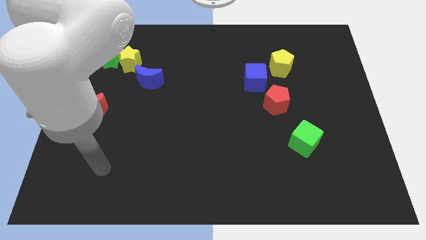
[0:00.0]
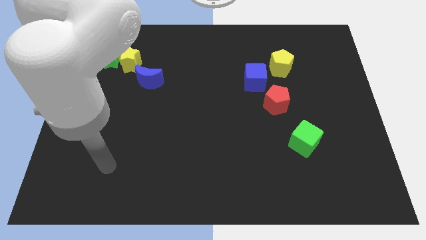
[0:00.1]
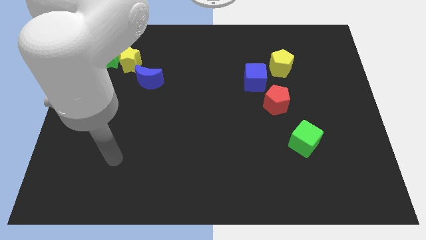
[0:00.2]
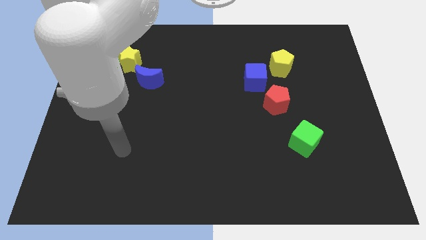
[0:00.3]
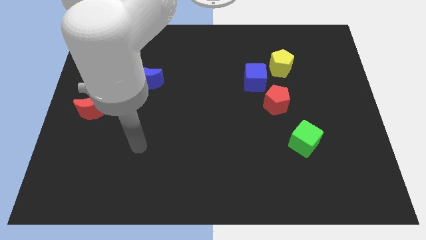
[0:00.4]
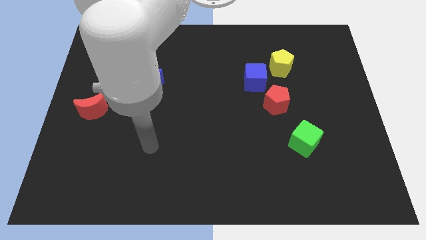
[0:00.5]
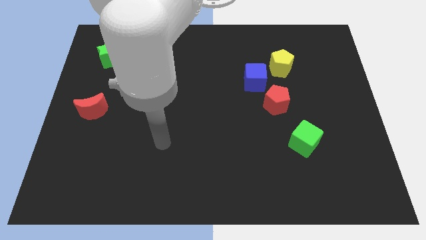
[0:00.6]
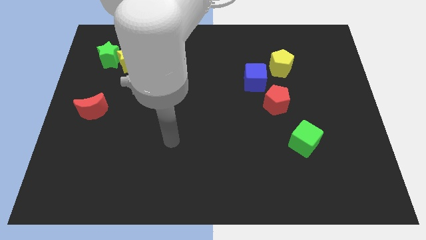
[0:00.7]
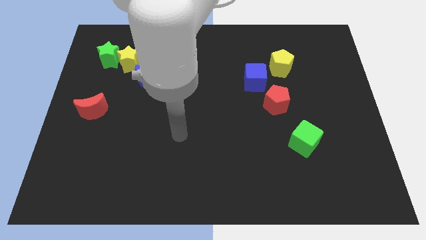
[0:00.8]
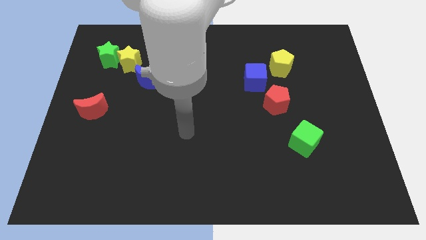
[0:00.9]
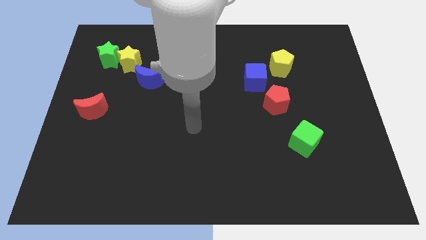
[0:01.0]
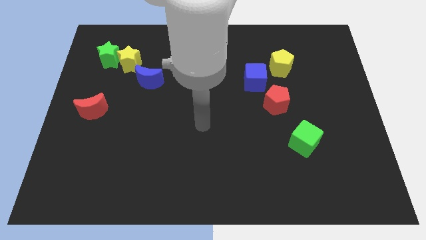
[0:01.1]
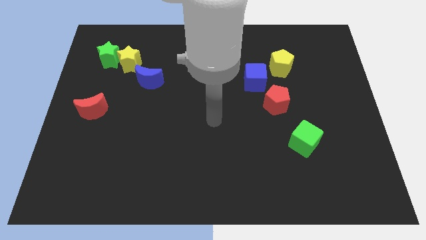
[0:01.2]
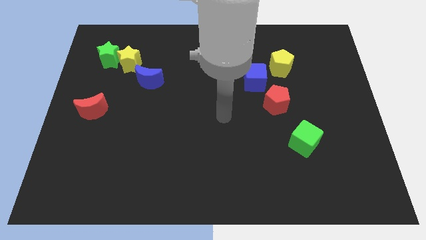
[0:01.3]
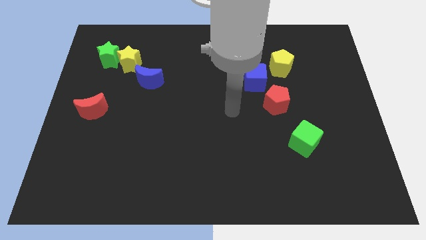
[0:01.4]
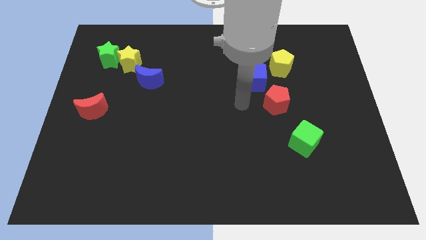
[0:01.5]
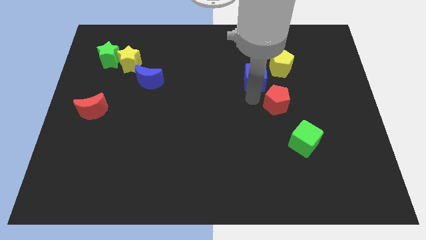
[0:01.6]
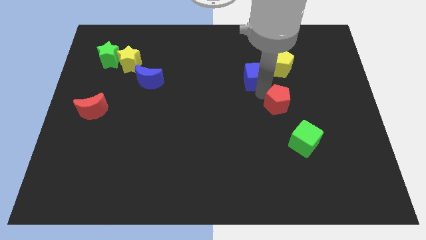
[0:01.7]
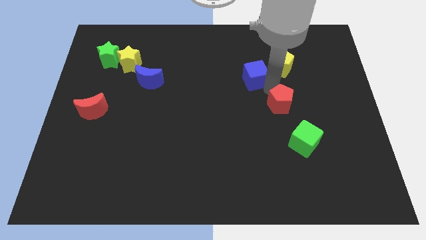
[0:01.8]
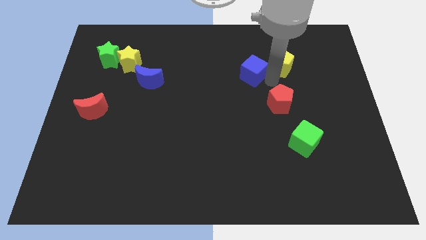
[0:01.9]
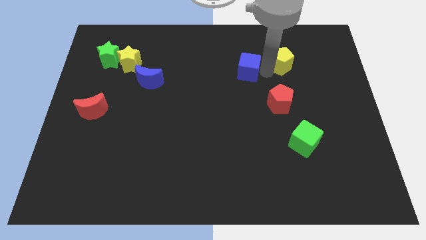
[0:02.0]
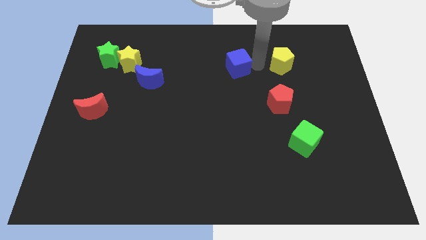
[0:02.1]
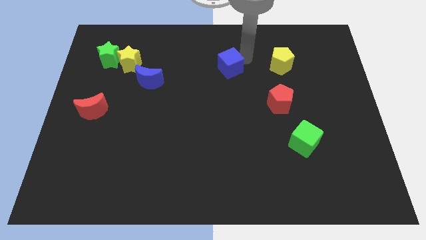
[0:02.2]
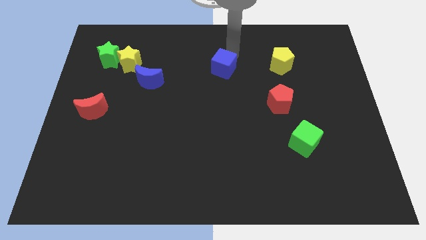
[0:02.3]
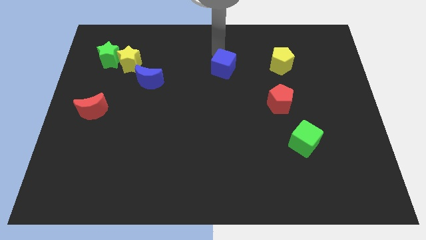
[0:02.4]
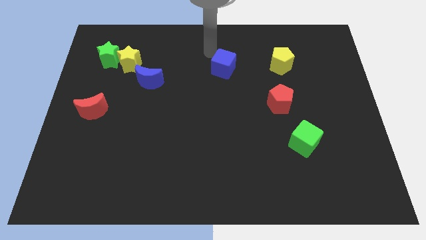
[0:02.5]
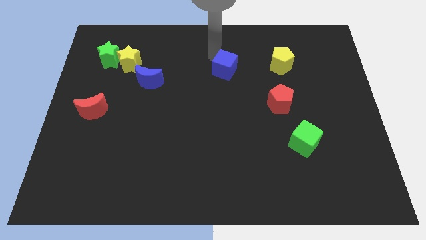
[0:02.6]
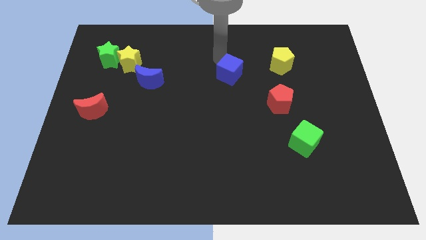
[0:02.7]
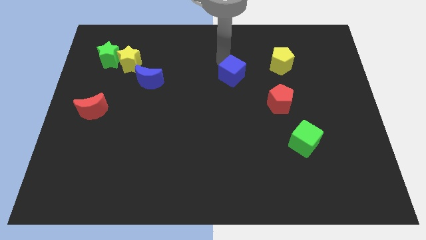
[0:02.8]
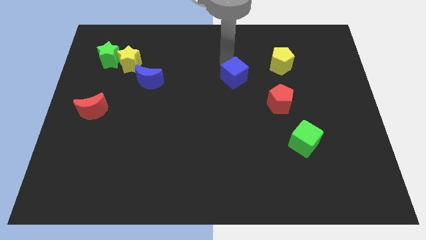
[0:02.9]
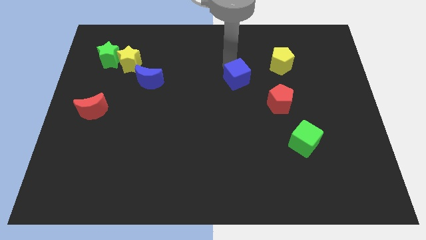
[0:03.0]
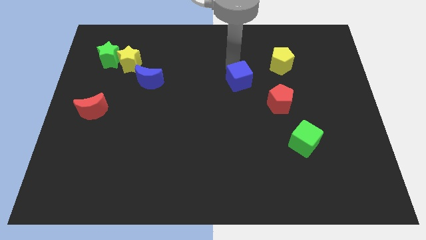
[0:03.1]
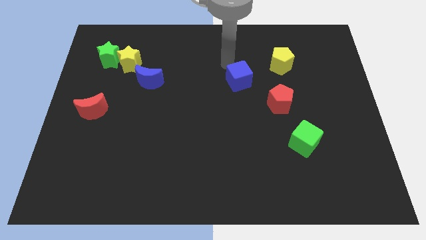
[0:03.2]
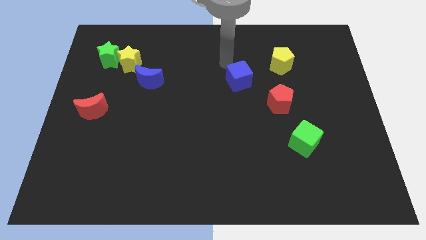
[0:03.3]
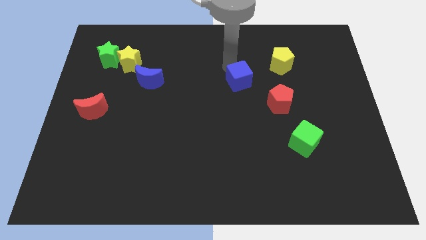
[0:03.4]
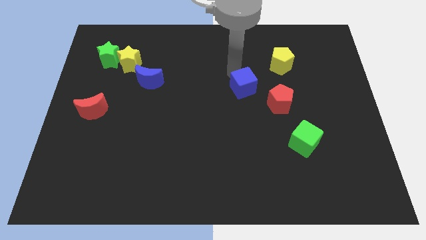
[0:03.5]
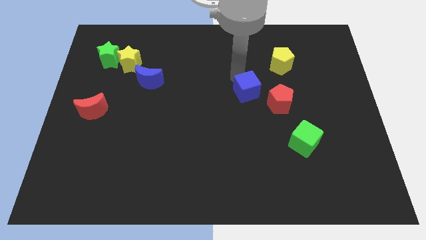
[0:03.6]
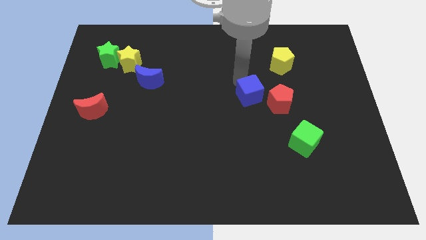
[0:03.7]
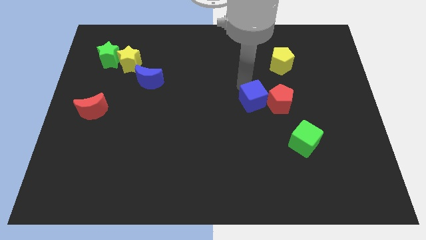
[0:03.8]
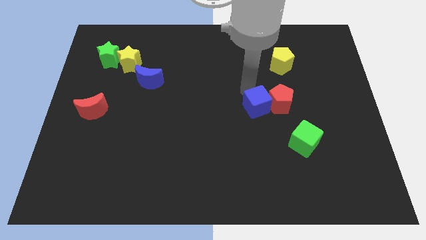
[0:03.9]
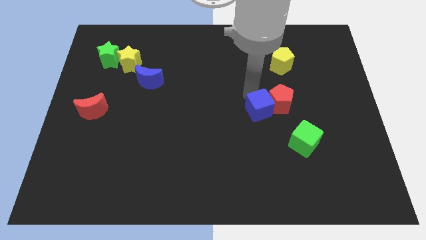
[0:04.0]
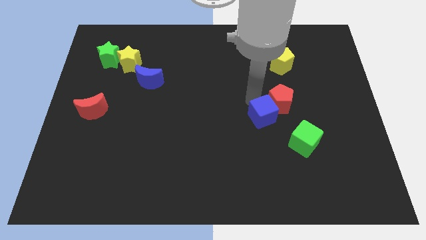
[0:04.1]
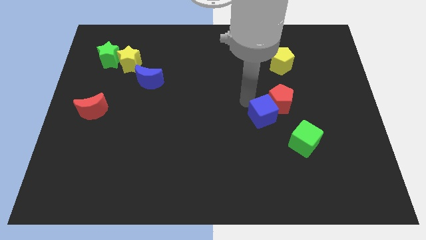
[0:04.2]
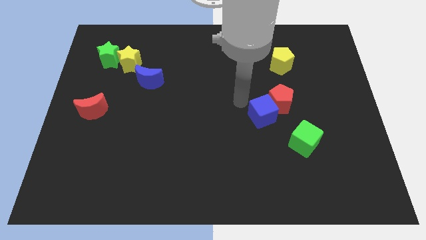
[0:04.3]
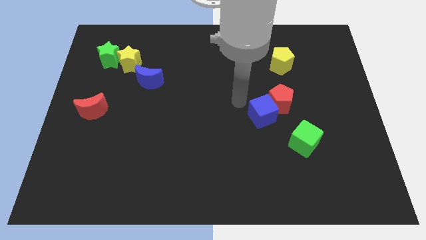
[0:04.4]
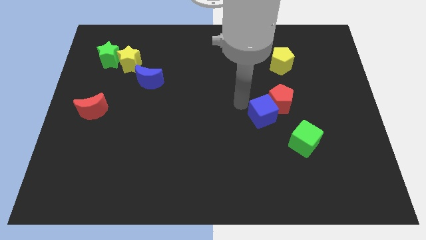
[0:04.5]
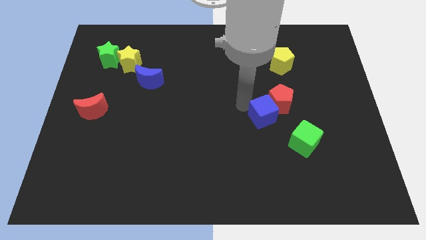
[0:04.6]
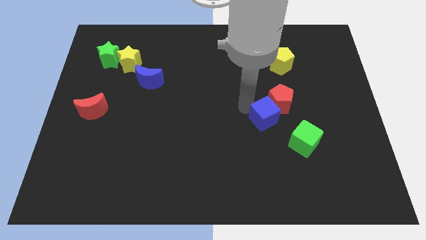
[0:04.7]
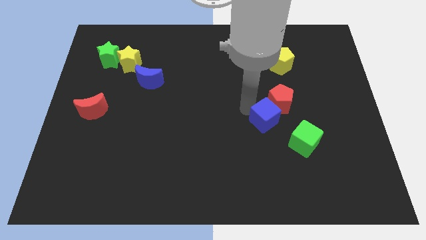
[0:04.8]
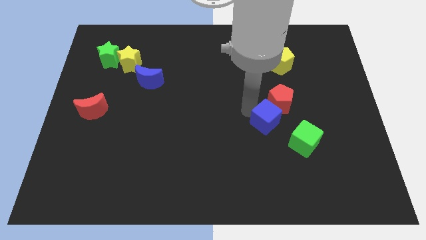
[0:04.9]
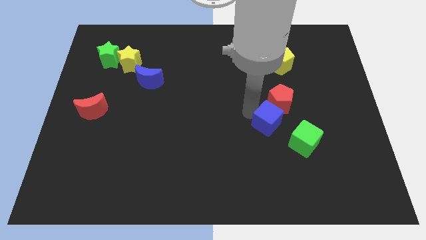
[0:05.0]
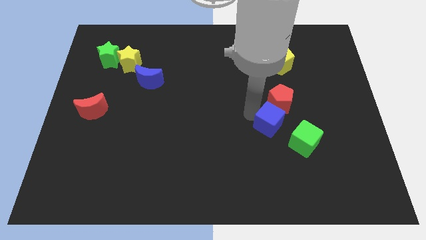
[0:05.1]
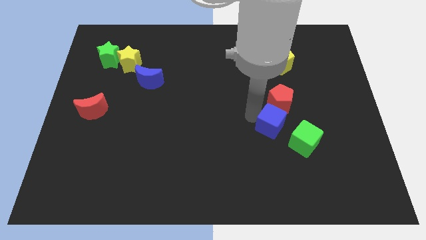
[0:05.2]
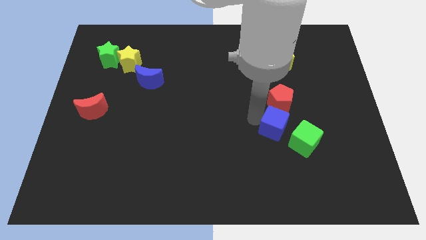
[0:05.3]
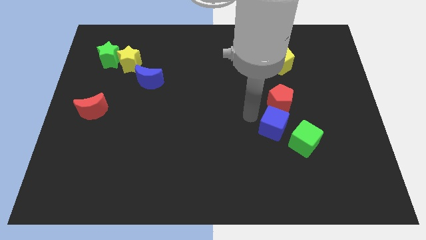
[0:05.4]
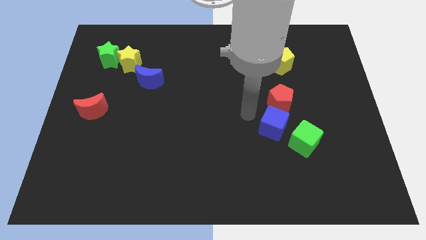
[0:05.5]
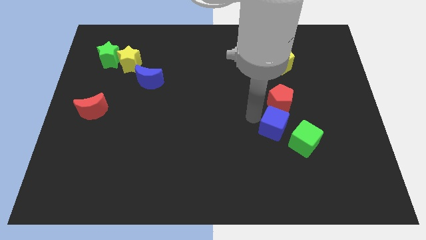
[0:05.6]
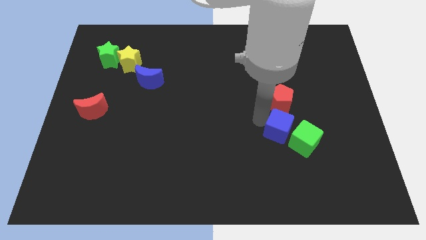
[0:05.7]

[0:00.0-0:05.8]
move the blue cube to the green cube
